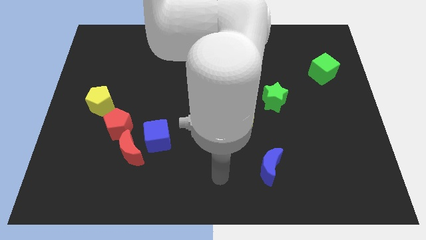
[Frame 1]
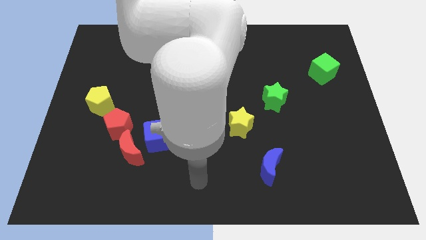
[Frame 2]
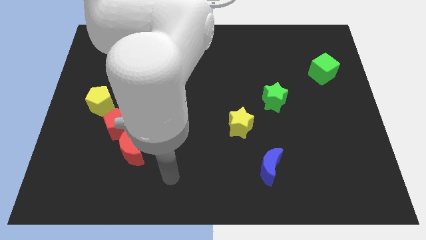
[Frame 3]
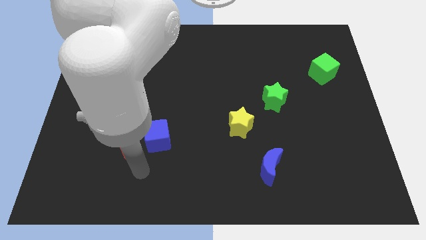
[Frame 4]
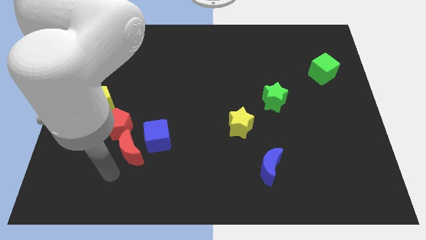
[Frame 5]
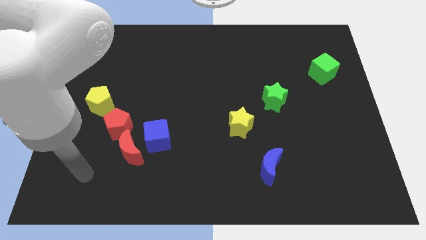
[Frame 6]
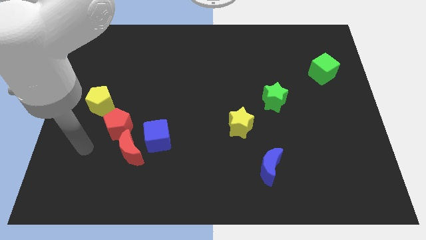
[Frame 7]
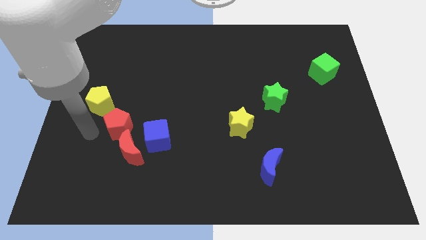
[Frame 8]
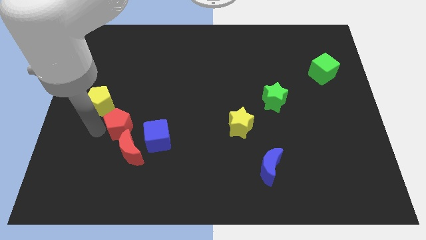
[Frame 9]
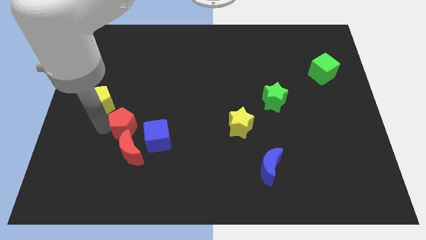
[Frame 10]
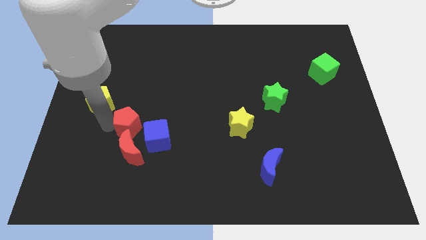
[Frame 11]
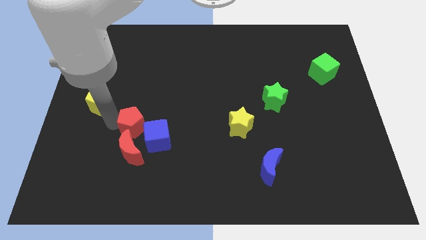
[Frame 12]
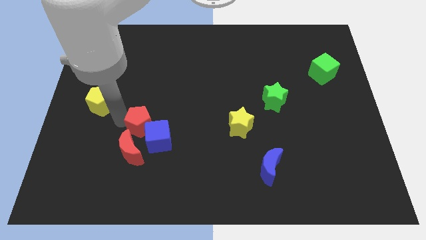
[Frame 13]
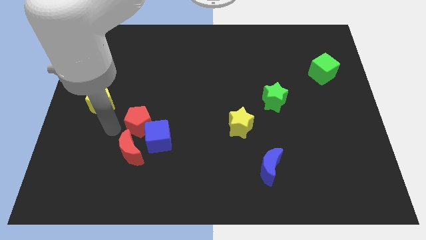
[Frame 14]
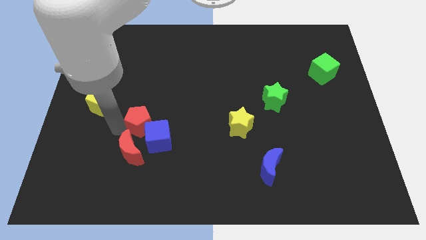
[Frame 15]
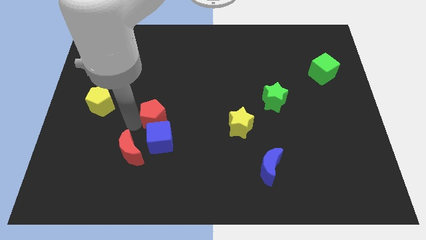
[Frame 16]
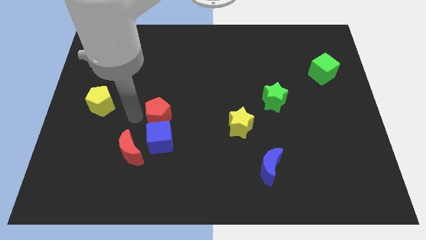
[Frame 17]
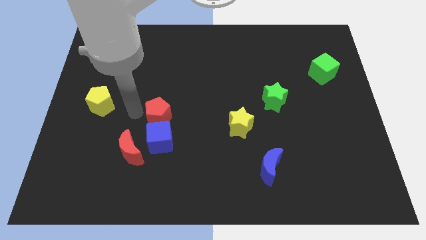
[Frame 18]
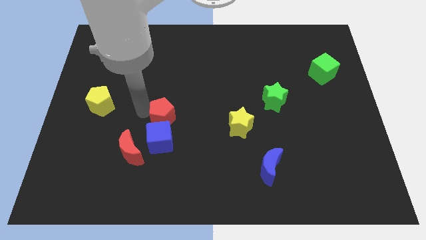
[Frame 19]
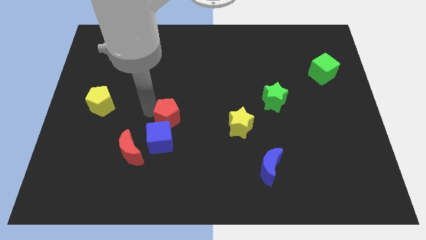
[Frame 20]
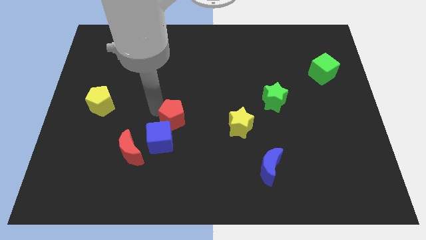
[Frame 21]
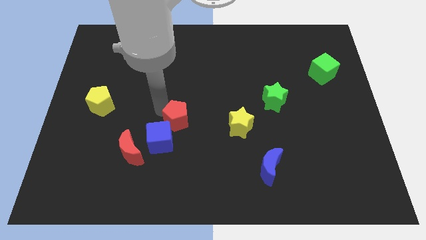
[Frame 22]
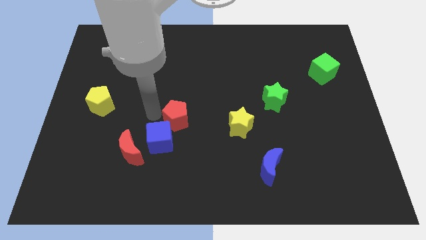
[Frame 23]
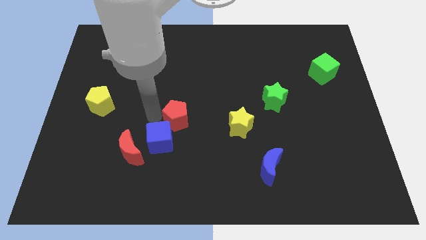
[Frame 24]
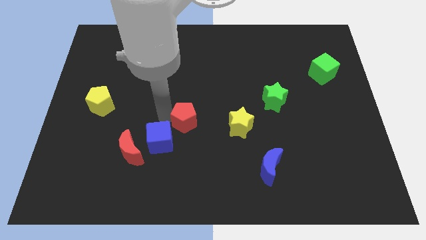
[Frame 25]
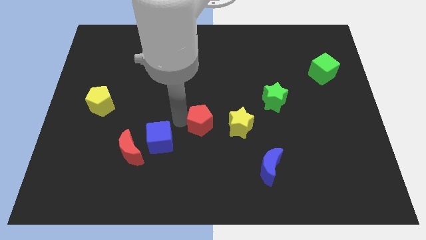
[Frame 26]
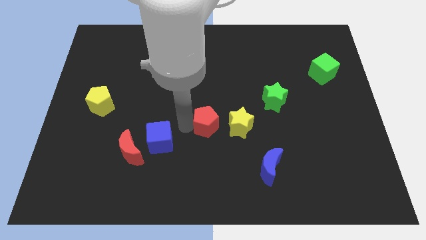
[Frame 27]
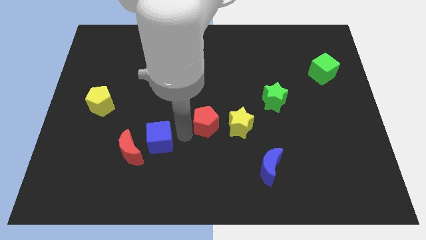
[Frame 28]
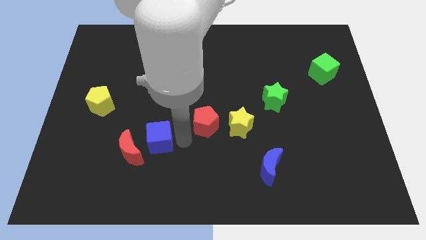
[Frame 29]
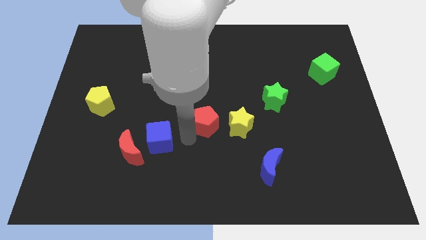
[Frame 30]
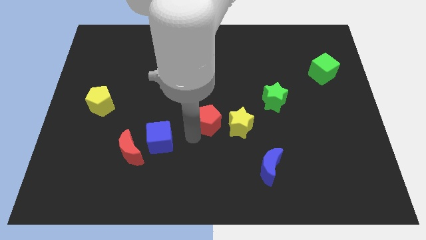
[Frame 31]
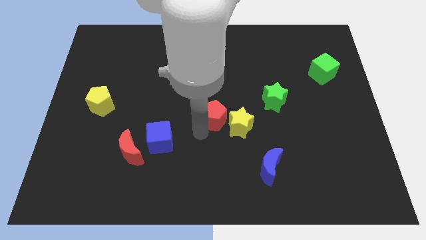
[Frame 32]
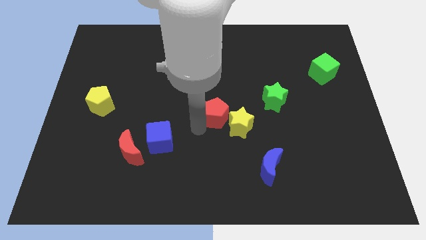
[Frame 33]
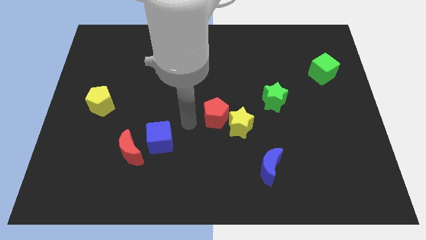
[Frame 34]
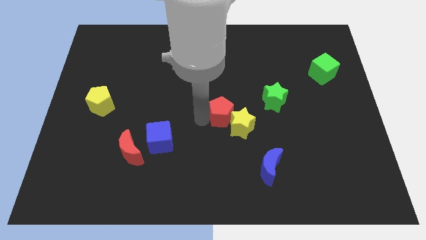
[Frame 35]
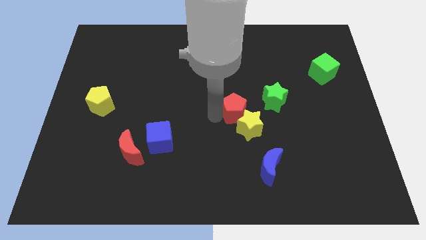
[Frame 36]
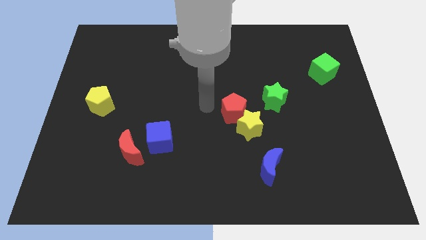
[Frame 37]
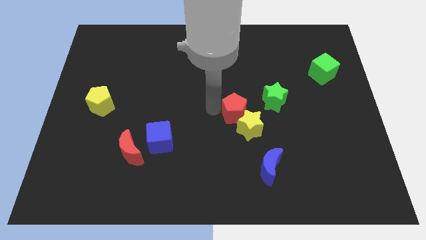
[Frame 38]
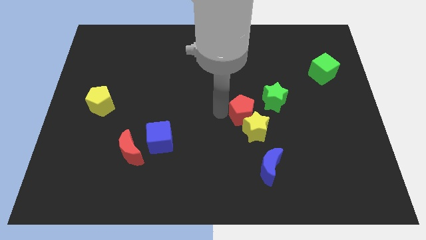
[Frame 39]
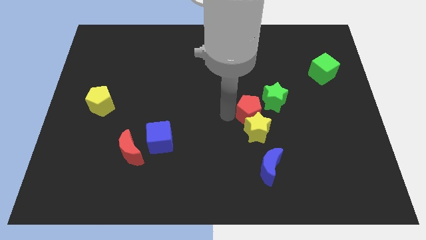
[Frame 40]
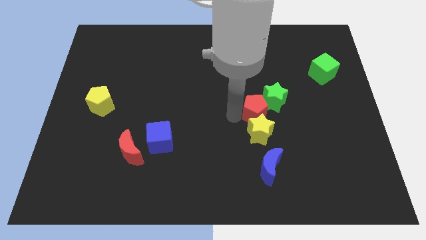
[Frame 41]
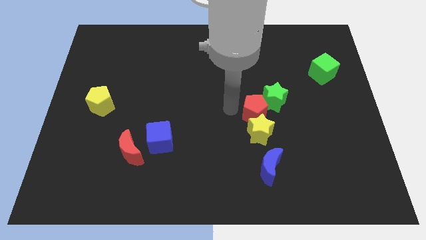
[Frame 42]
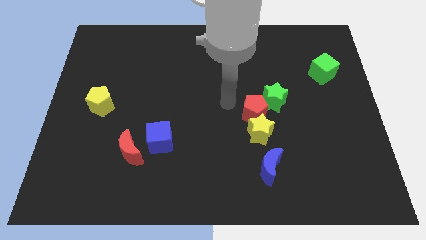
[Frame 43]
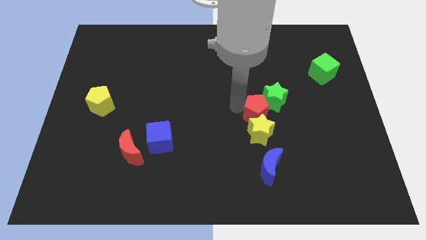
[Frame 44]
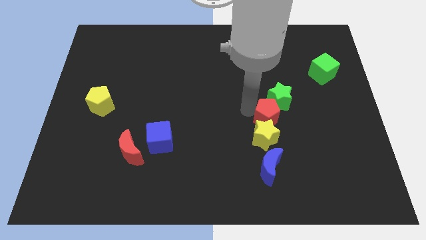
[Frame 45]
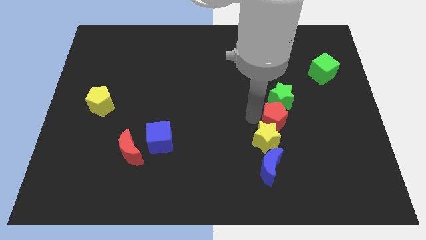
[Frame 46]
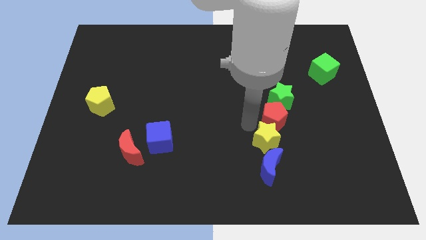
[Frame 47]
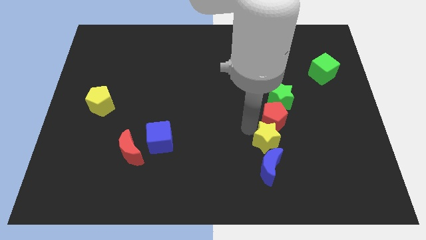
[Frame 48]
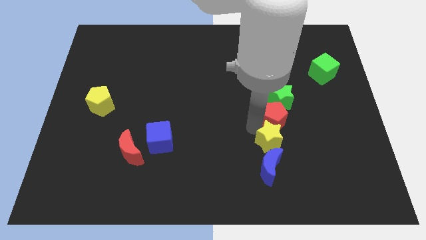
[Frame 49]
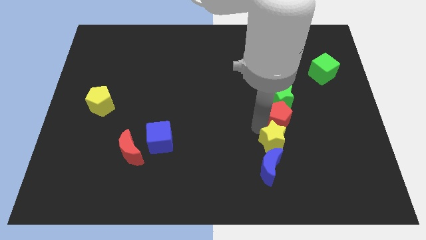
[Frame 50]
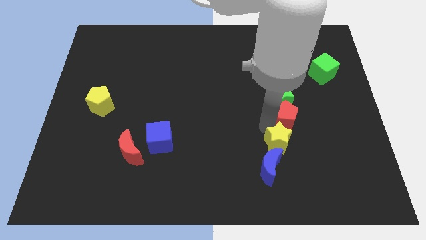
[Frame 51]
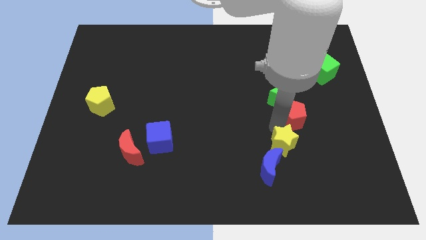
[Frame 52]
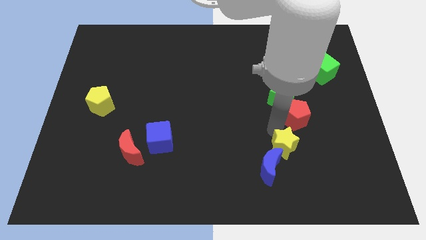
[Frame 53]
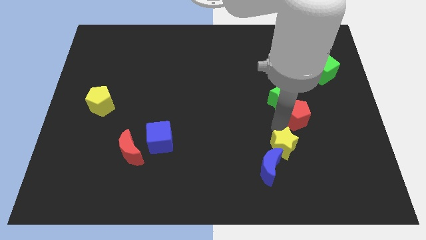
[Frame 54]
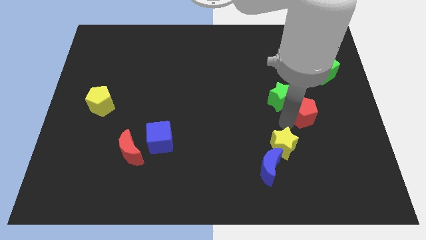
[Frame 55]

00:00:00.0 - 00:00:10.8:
push the red pentagon to the right of the green star
